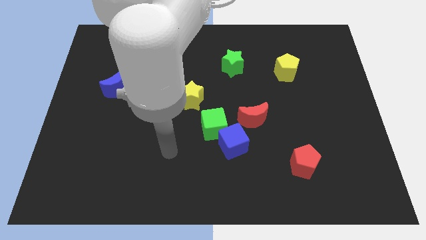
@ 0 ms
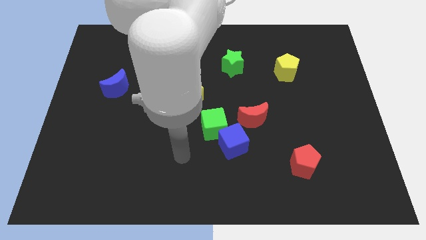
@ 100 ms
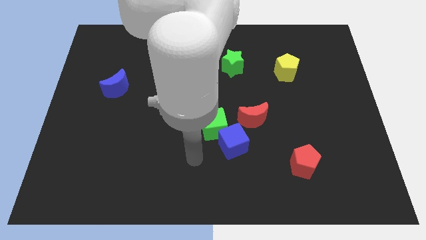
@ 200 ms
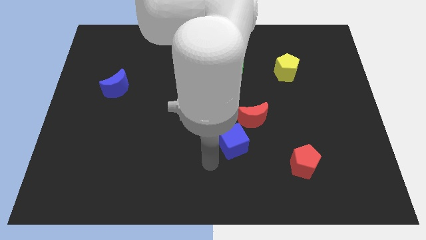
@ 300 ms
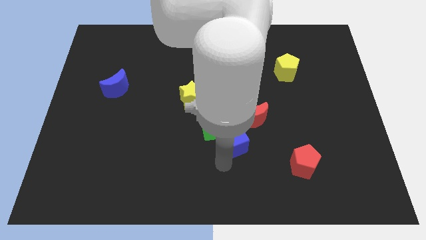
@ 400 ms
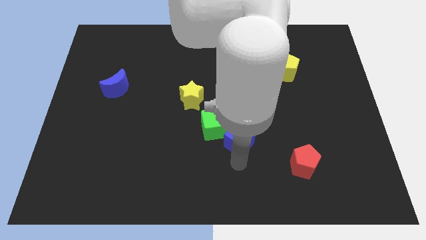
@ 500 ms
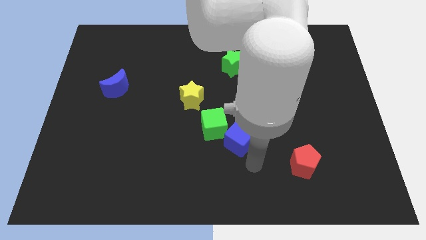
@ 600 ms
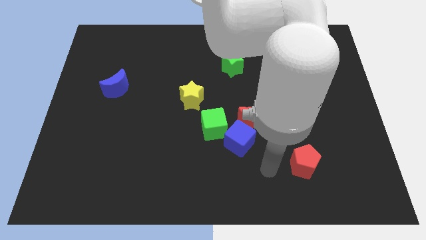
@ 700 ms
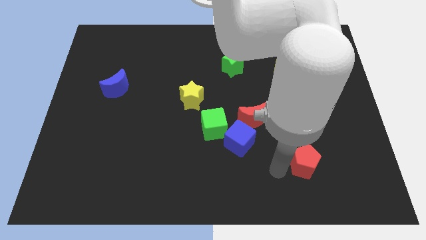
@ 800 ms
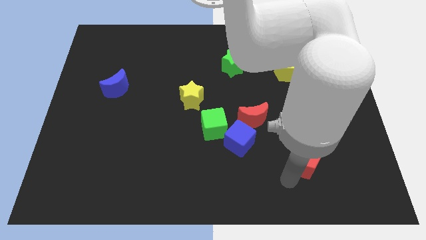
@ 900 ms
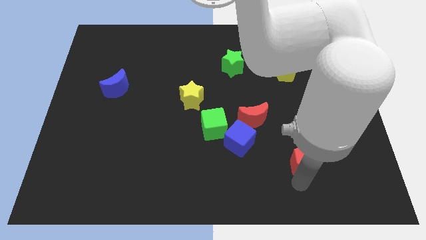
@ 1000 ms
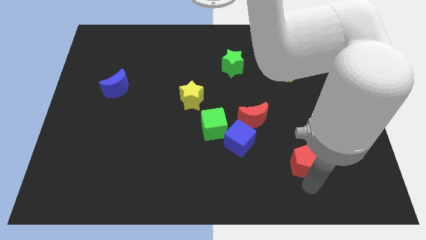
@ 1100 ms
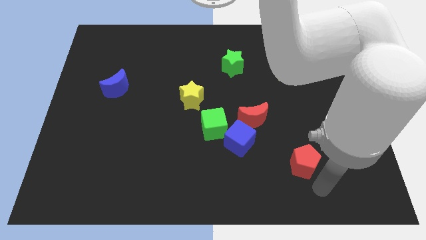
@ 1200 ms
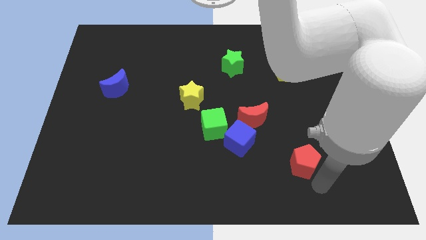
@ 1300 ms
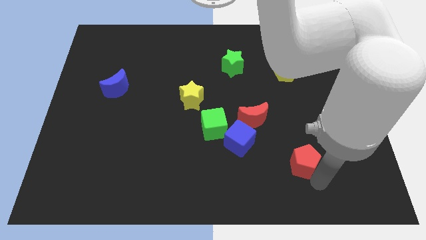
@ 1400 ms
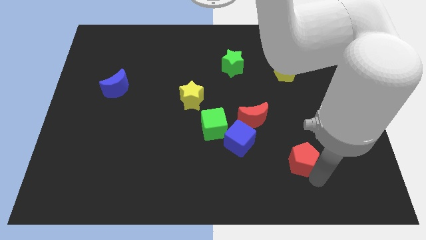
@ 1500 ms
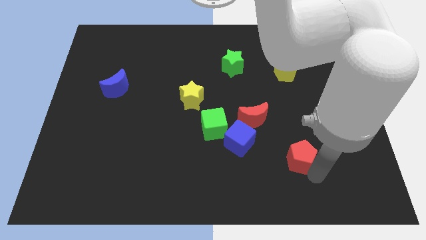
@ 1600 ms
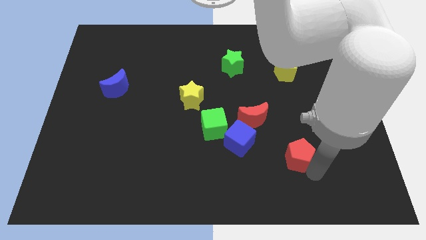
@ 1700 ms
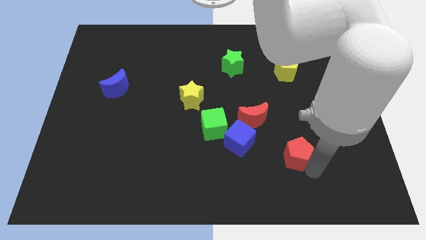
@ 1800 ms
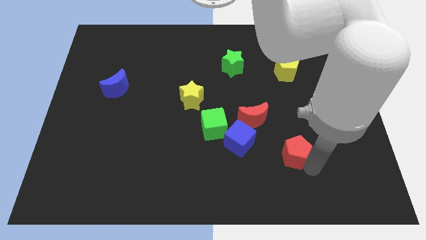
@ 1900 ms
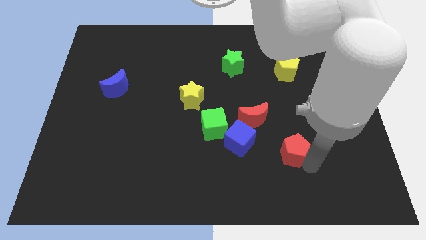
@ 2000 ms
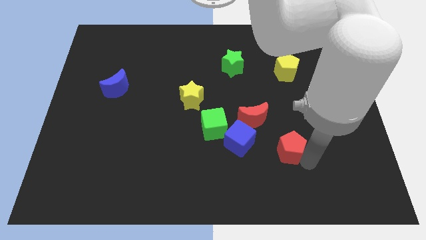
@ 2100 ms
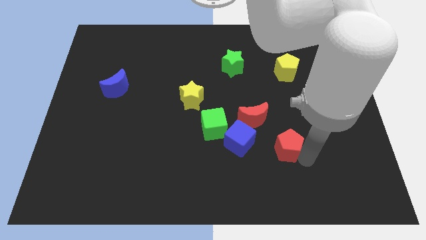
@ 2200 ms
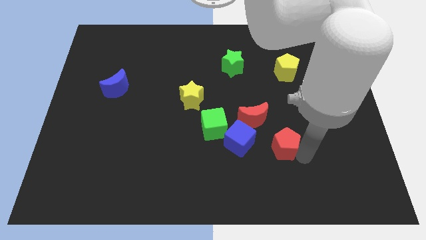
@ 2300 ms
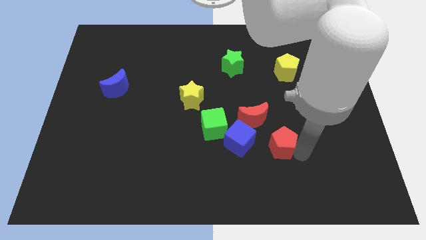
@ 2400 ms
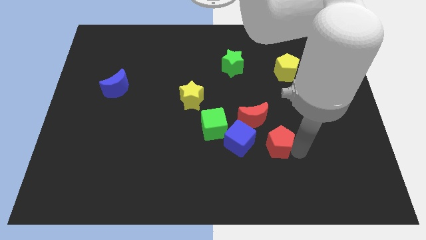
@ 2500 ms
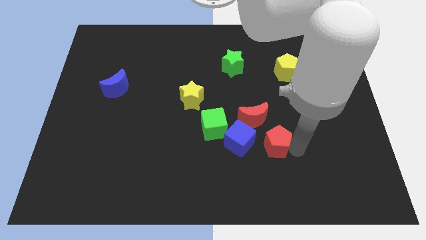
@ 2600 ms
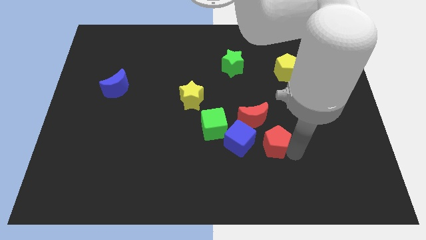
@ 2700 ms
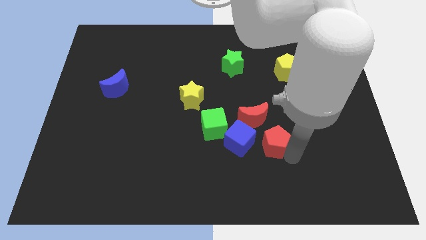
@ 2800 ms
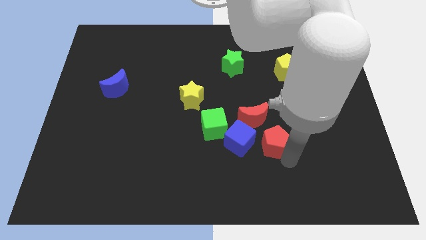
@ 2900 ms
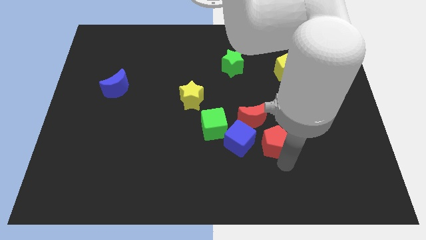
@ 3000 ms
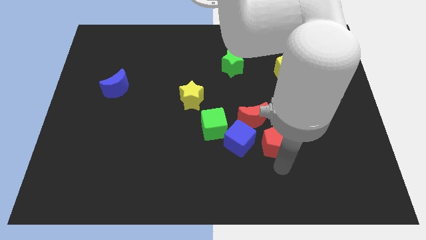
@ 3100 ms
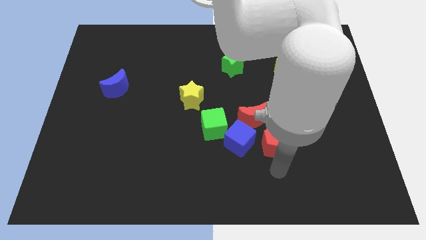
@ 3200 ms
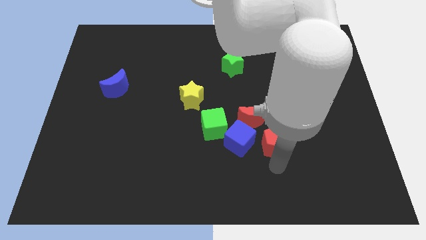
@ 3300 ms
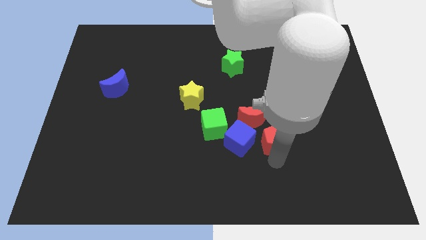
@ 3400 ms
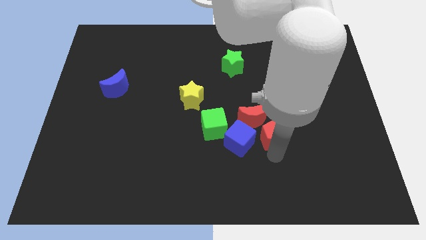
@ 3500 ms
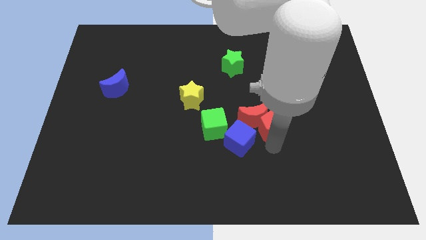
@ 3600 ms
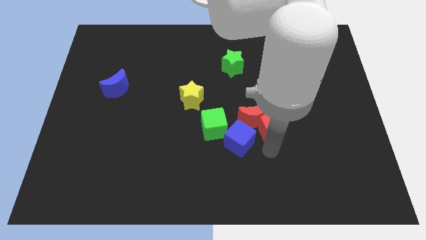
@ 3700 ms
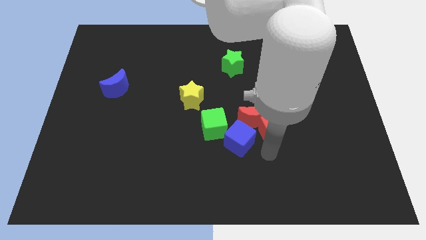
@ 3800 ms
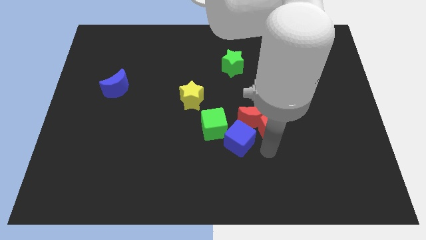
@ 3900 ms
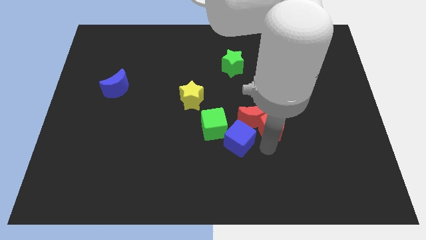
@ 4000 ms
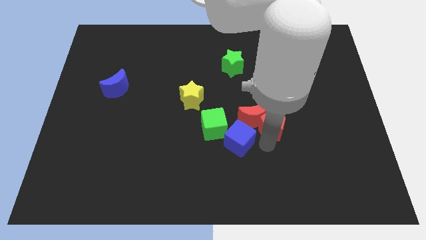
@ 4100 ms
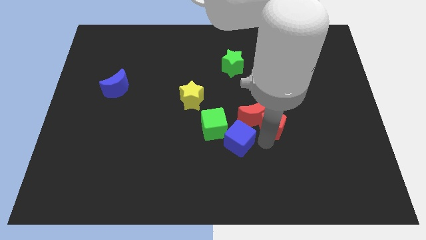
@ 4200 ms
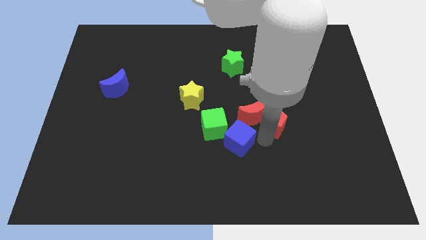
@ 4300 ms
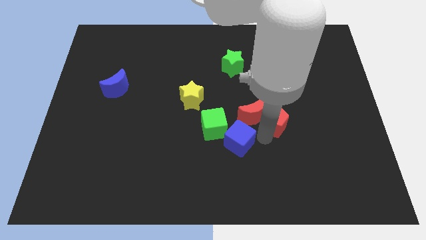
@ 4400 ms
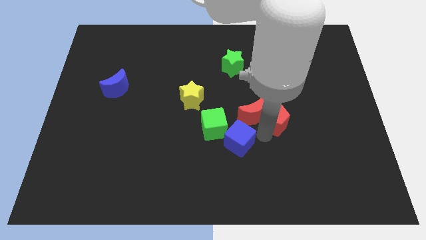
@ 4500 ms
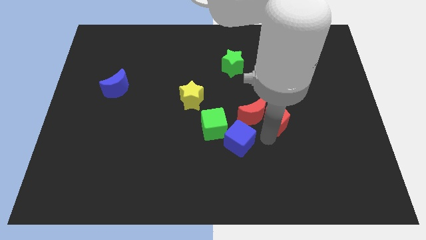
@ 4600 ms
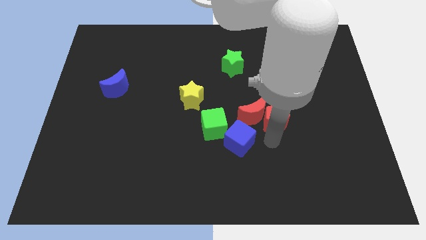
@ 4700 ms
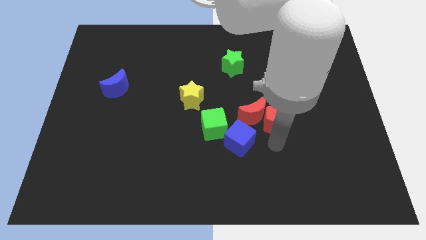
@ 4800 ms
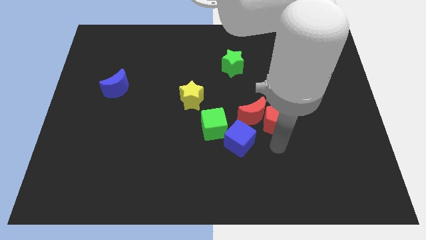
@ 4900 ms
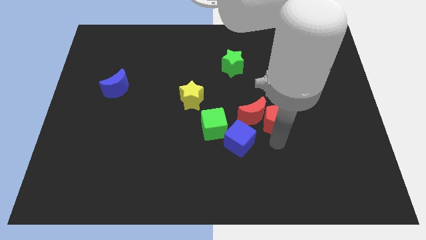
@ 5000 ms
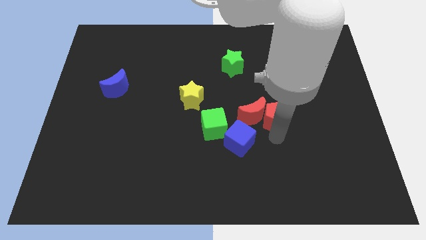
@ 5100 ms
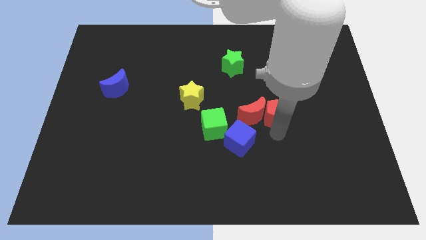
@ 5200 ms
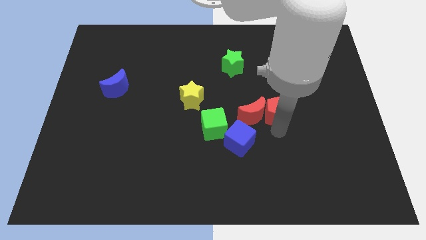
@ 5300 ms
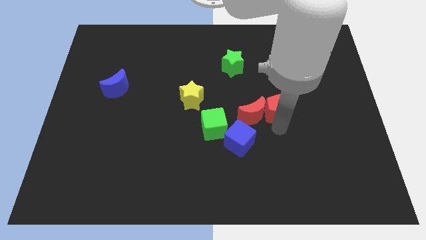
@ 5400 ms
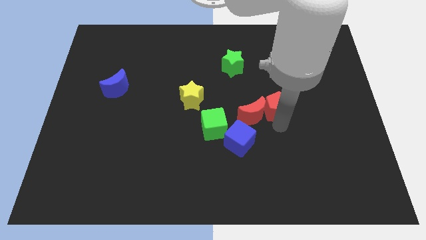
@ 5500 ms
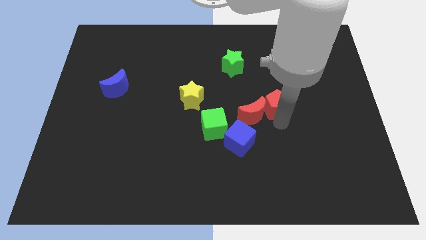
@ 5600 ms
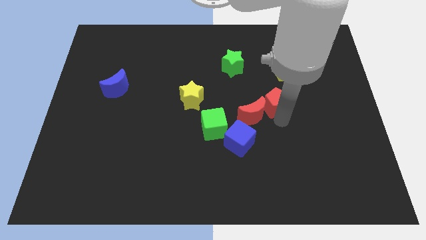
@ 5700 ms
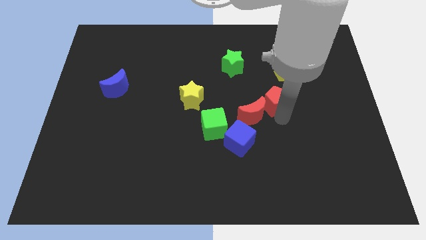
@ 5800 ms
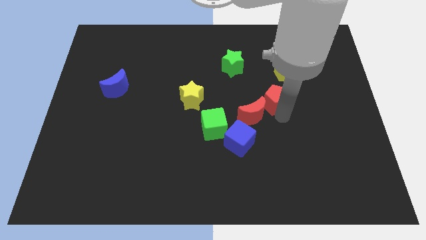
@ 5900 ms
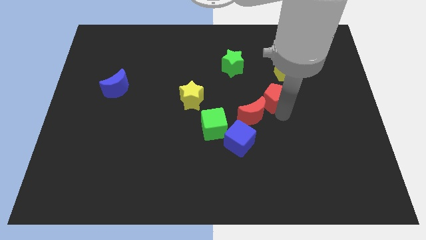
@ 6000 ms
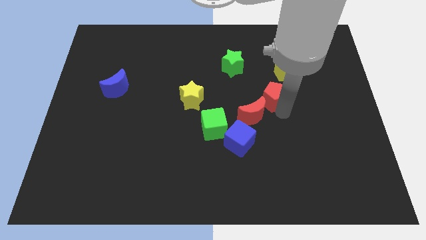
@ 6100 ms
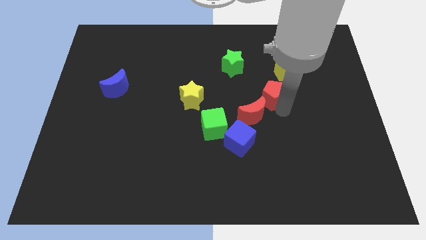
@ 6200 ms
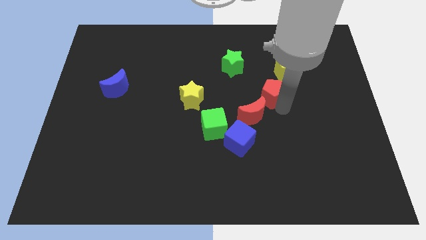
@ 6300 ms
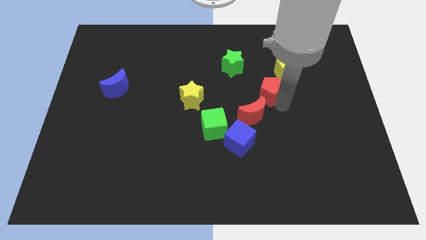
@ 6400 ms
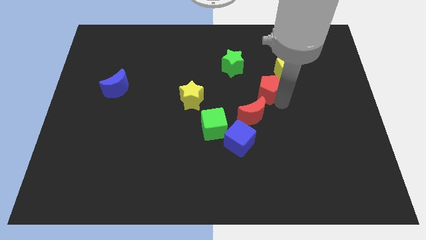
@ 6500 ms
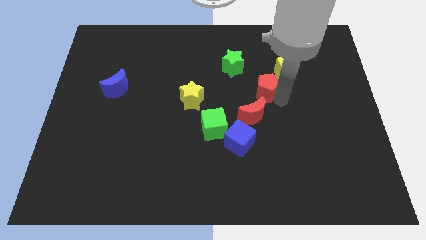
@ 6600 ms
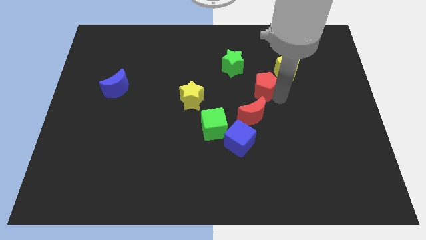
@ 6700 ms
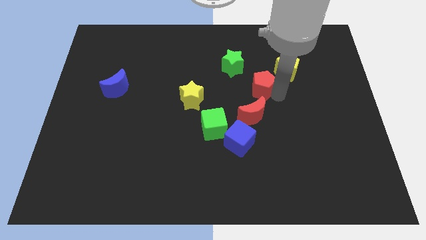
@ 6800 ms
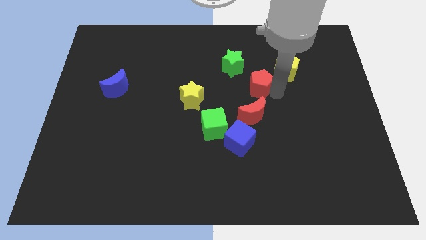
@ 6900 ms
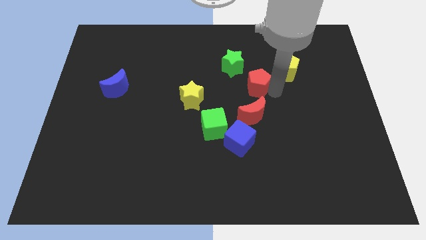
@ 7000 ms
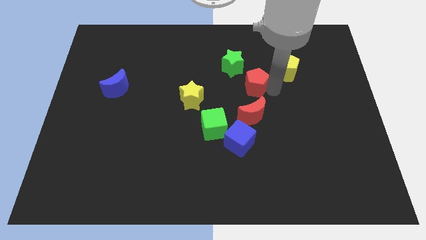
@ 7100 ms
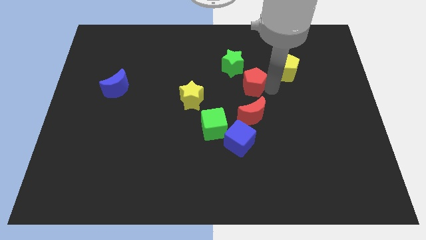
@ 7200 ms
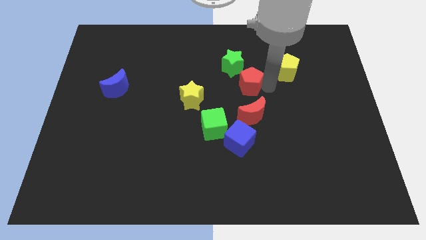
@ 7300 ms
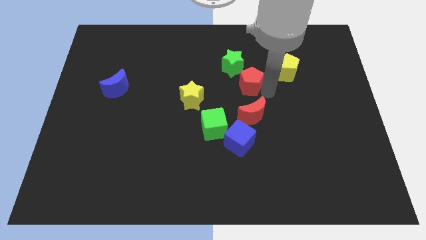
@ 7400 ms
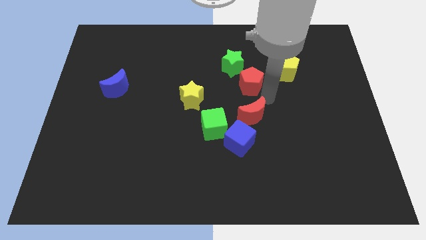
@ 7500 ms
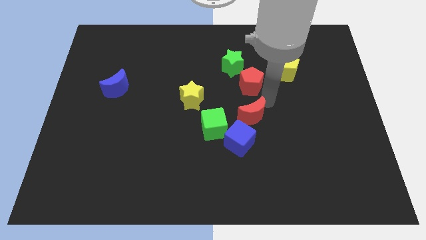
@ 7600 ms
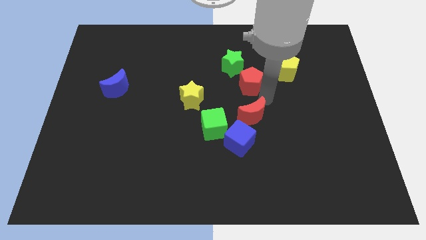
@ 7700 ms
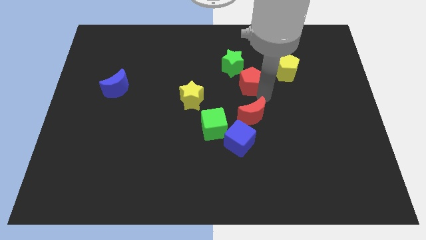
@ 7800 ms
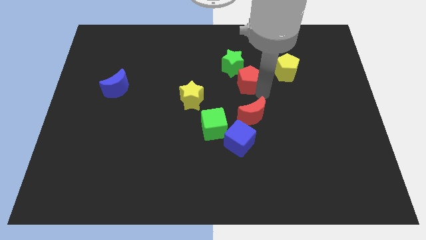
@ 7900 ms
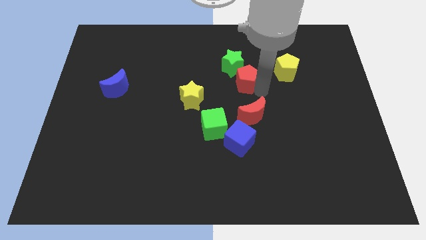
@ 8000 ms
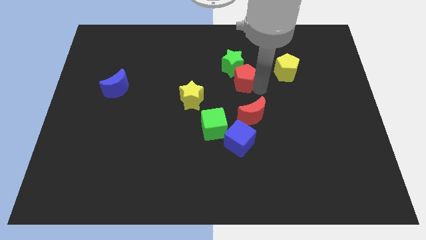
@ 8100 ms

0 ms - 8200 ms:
put the red pentagon close to the green star
